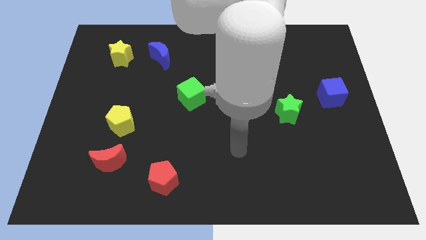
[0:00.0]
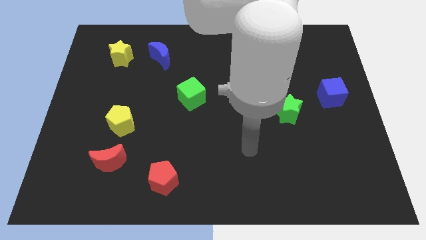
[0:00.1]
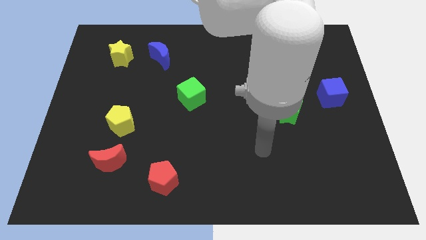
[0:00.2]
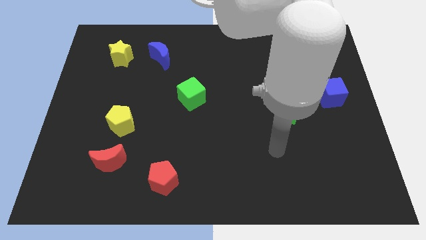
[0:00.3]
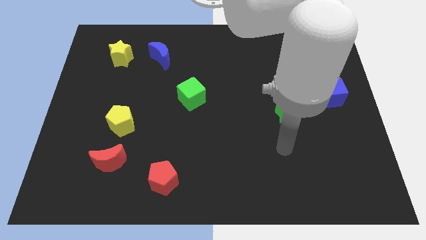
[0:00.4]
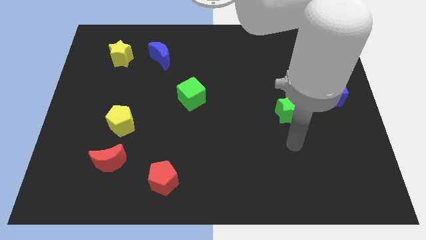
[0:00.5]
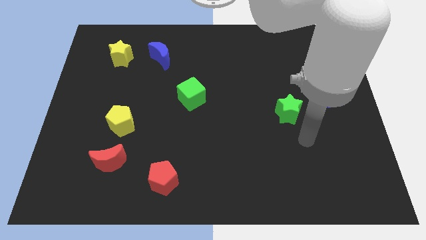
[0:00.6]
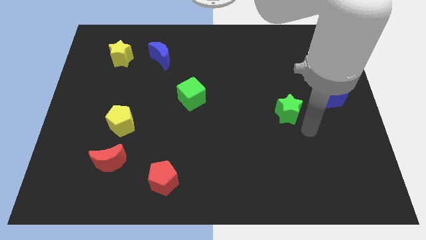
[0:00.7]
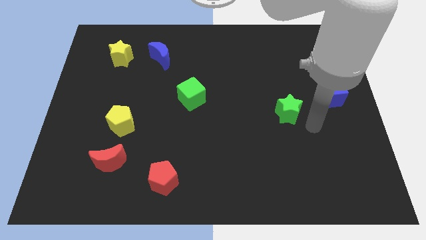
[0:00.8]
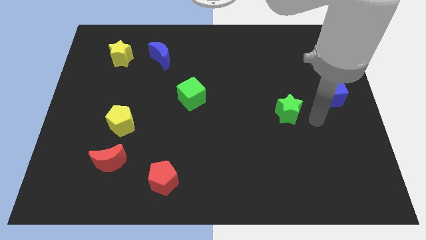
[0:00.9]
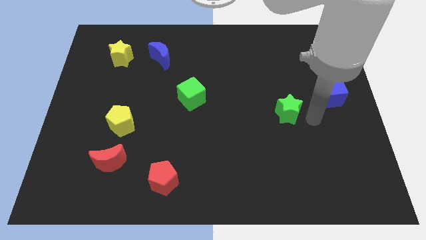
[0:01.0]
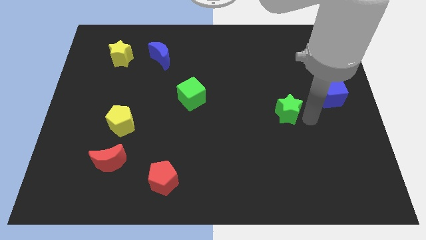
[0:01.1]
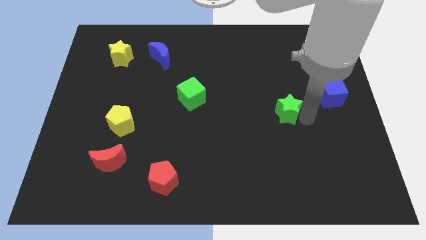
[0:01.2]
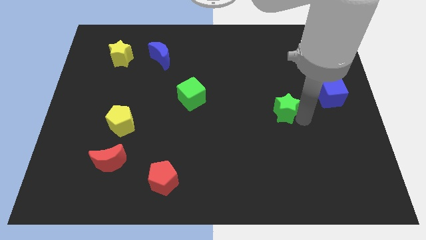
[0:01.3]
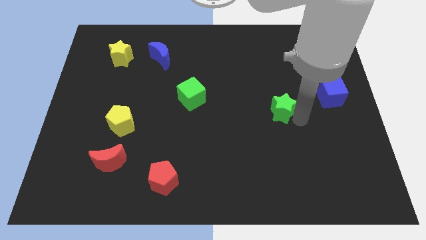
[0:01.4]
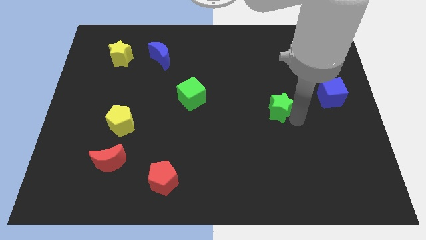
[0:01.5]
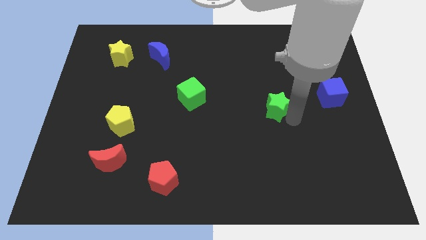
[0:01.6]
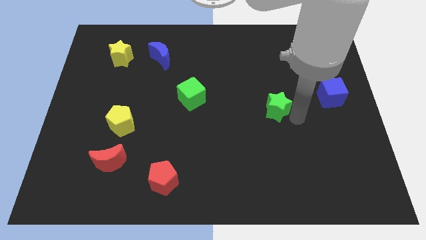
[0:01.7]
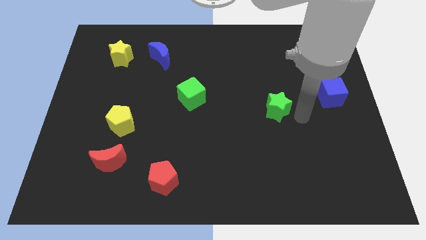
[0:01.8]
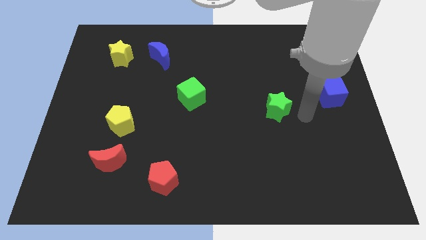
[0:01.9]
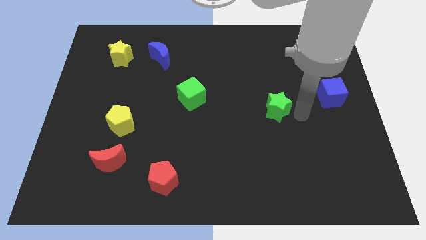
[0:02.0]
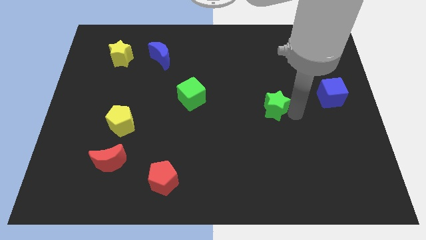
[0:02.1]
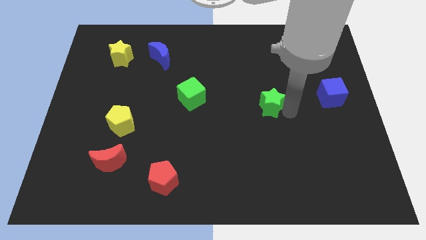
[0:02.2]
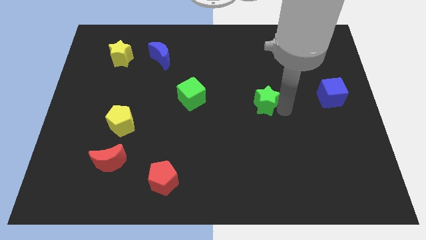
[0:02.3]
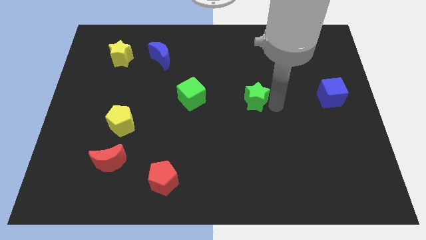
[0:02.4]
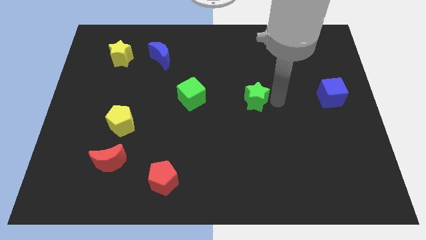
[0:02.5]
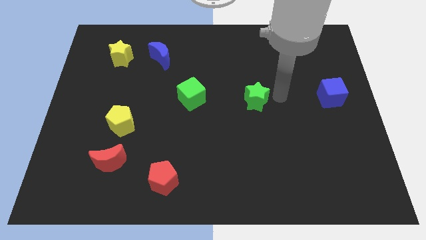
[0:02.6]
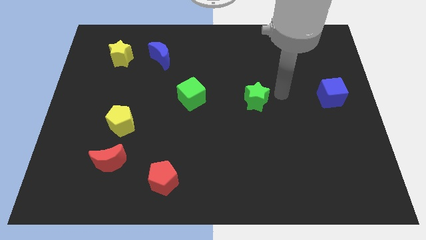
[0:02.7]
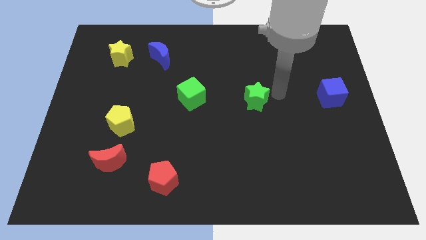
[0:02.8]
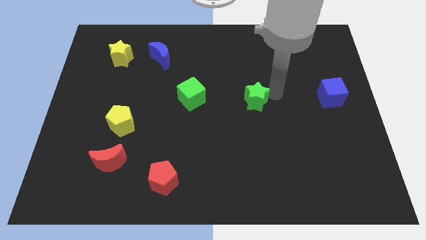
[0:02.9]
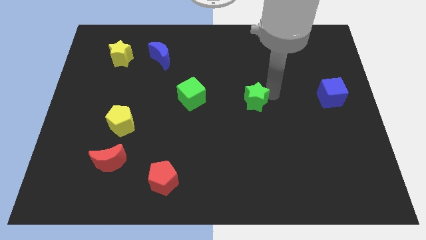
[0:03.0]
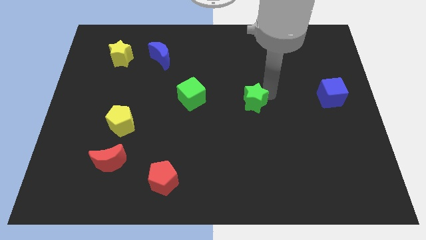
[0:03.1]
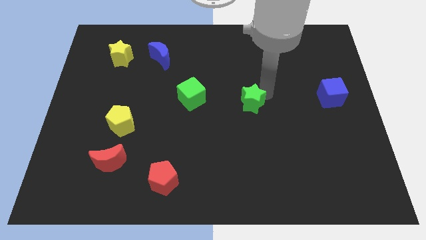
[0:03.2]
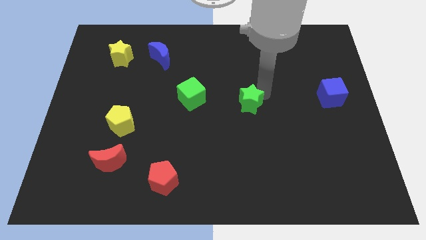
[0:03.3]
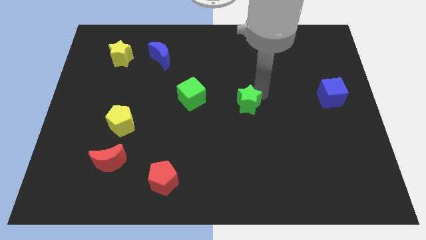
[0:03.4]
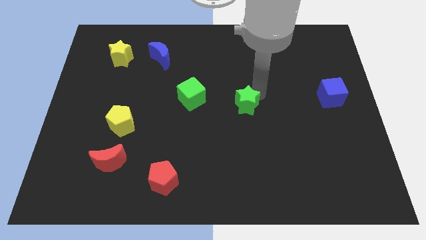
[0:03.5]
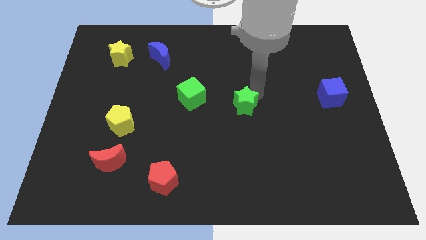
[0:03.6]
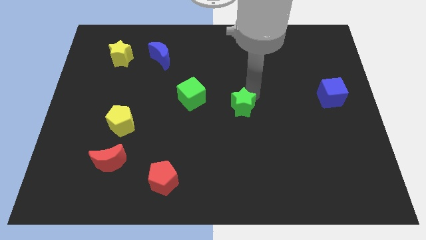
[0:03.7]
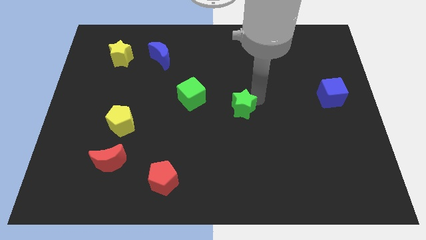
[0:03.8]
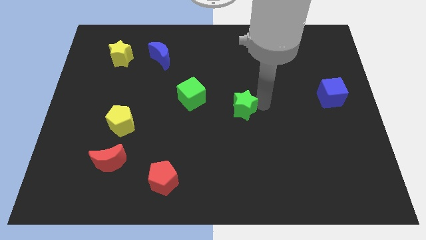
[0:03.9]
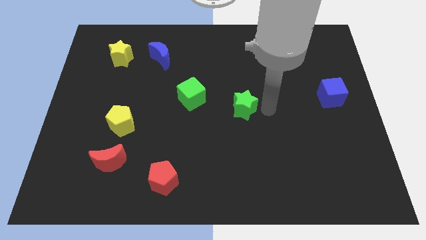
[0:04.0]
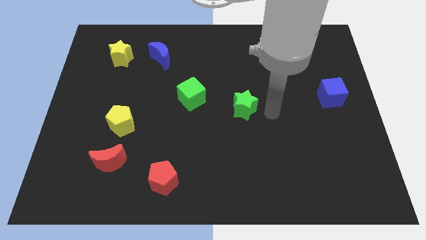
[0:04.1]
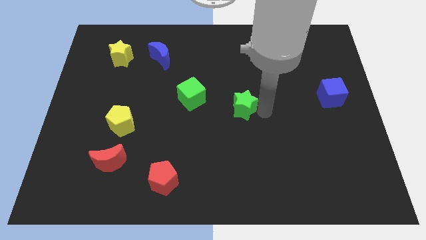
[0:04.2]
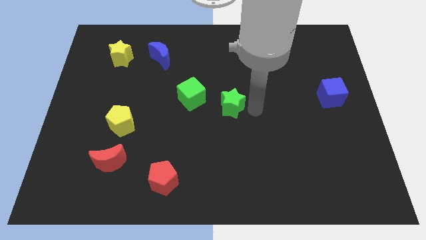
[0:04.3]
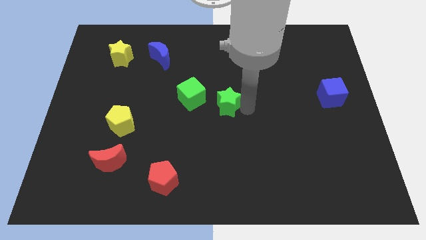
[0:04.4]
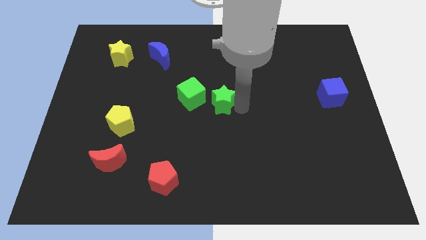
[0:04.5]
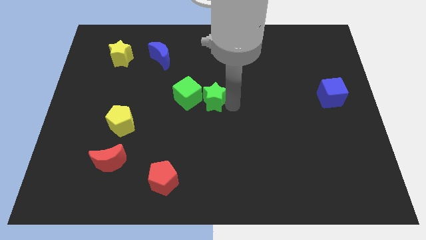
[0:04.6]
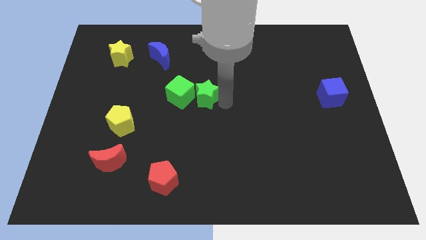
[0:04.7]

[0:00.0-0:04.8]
put the green star next to the green cube

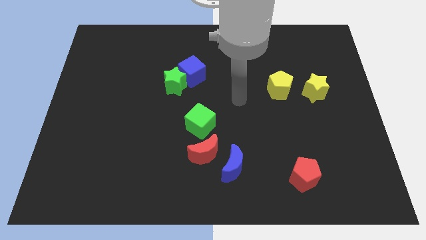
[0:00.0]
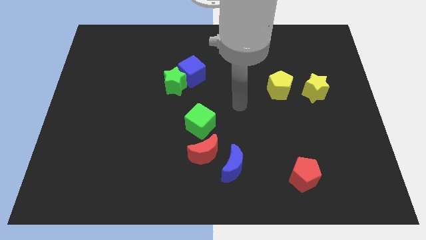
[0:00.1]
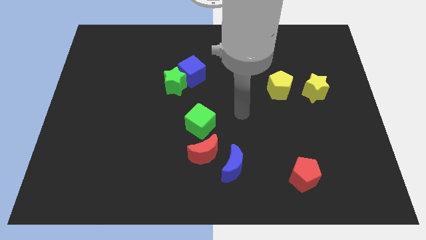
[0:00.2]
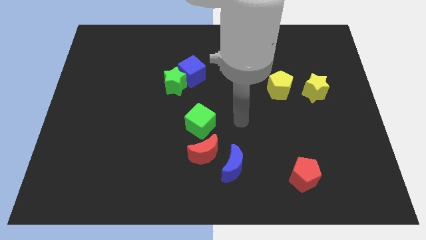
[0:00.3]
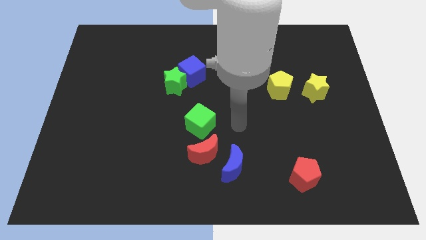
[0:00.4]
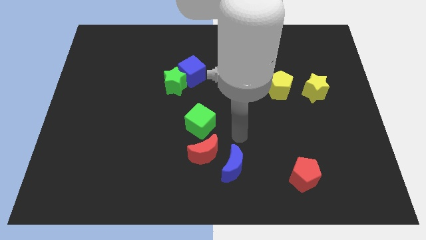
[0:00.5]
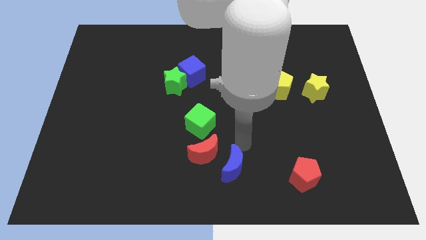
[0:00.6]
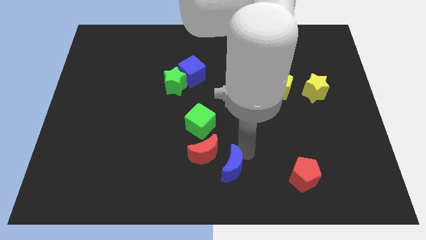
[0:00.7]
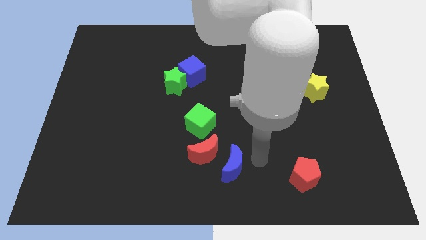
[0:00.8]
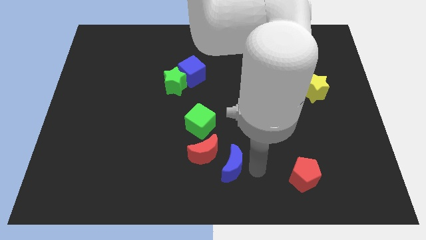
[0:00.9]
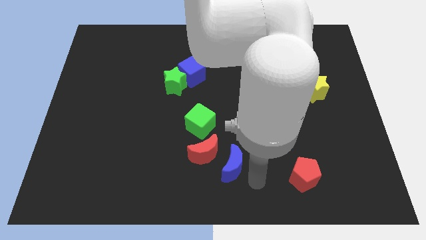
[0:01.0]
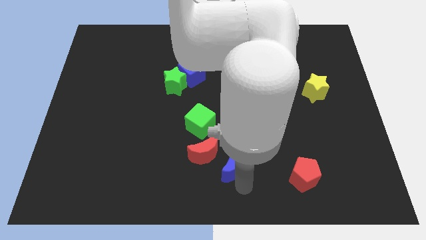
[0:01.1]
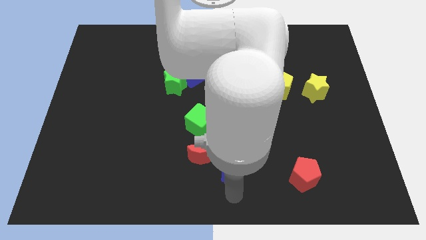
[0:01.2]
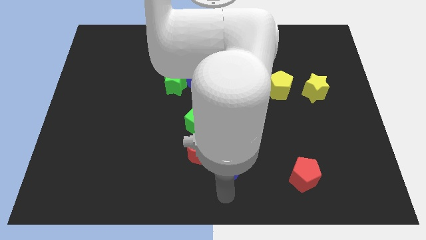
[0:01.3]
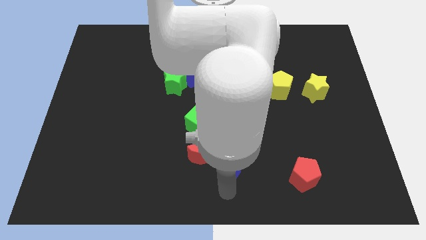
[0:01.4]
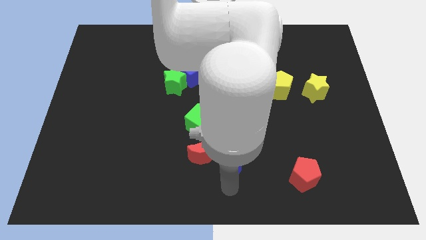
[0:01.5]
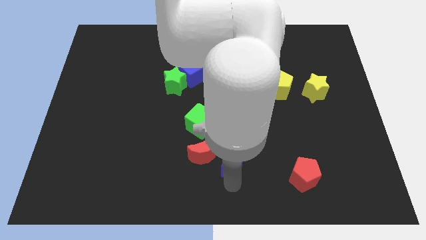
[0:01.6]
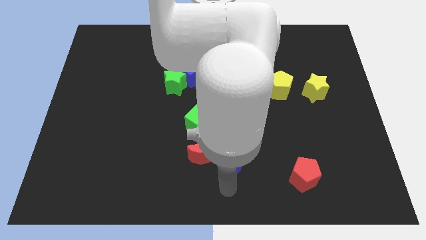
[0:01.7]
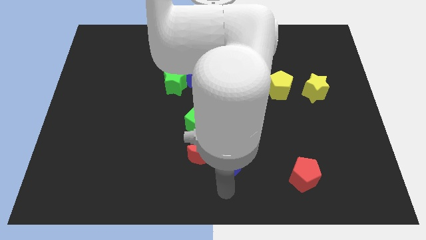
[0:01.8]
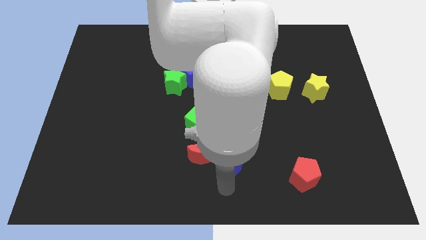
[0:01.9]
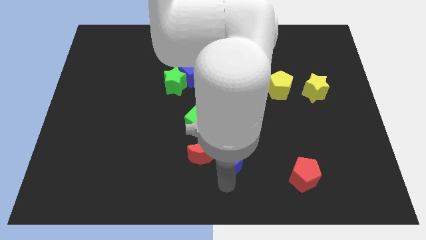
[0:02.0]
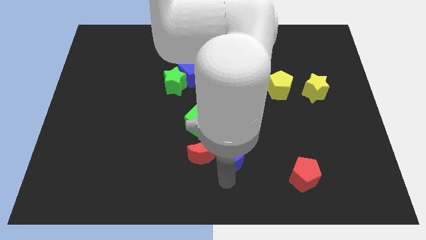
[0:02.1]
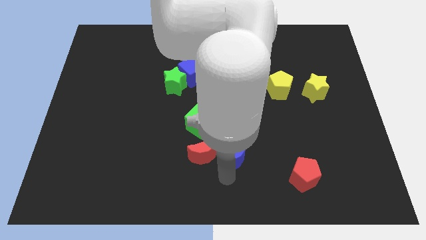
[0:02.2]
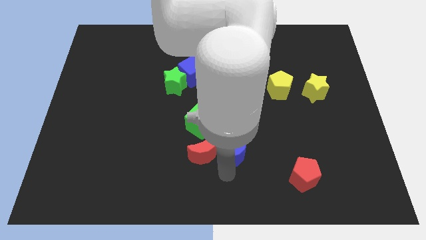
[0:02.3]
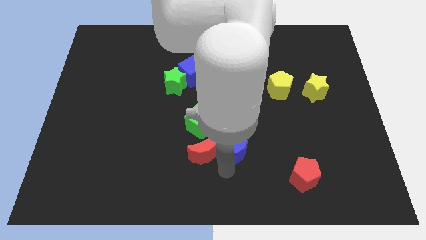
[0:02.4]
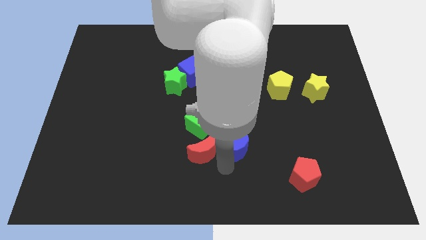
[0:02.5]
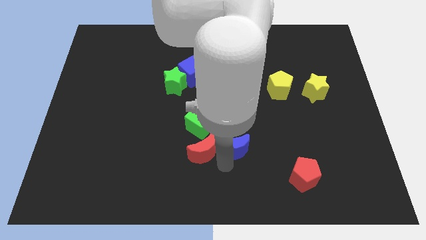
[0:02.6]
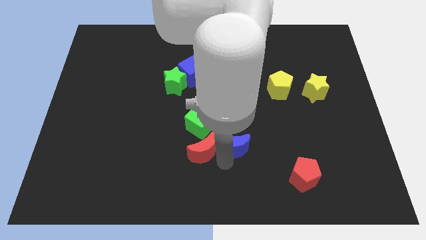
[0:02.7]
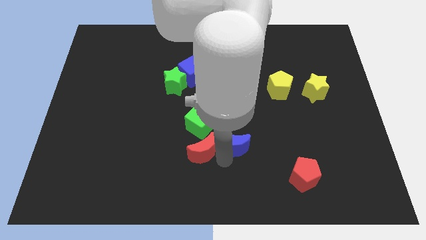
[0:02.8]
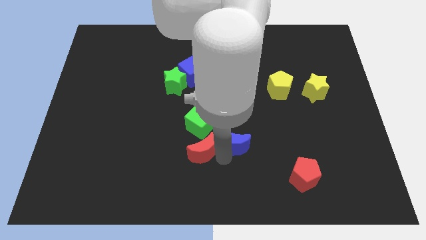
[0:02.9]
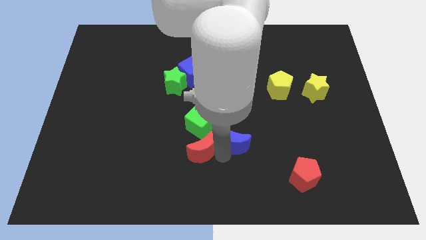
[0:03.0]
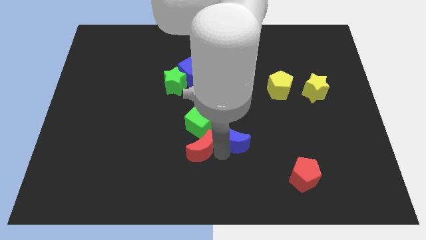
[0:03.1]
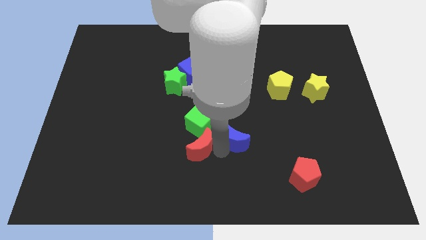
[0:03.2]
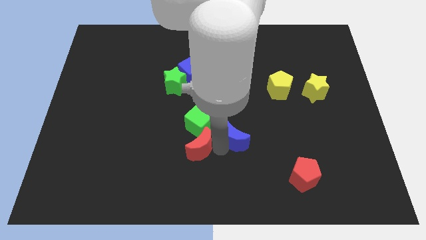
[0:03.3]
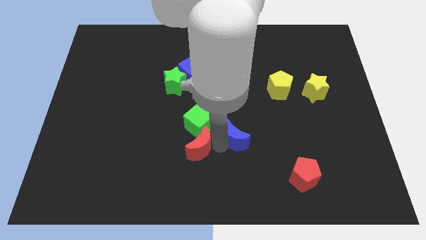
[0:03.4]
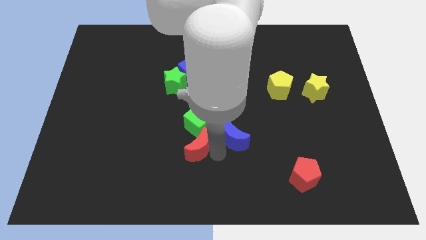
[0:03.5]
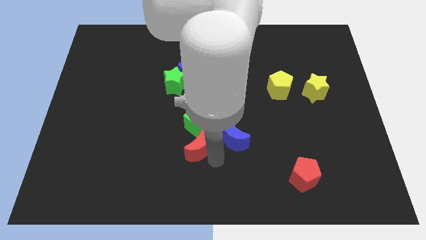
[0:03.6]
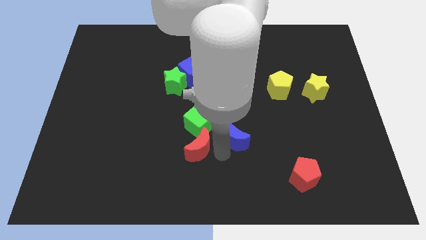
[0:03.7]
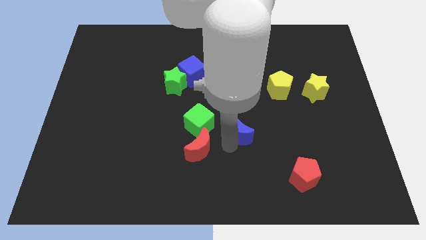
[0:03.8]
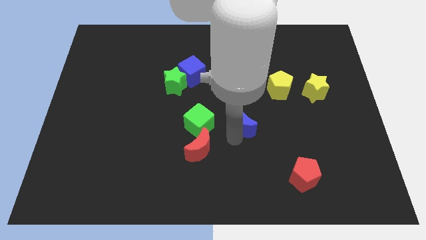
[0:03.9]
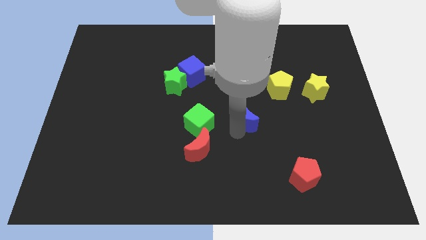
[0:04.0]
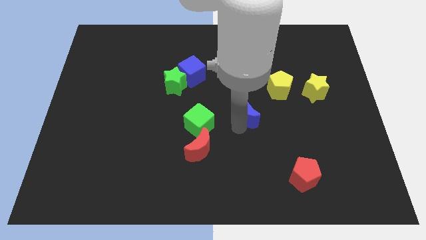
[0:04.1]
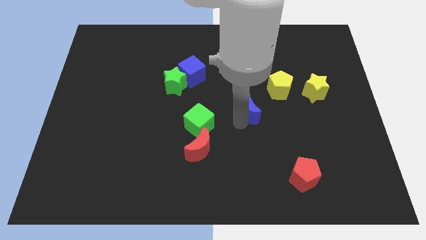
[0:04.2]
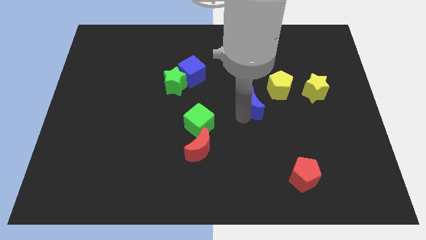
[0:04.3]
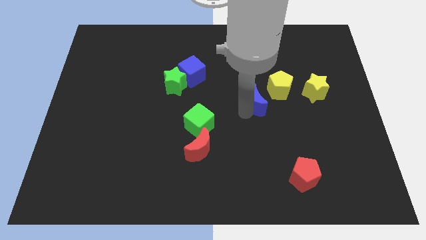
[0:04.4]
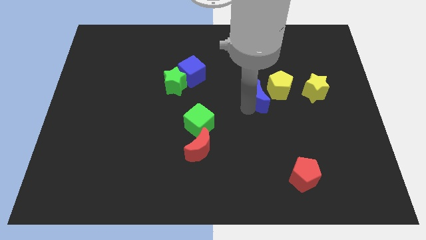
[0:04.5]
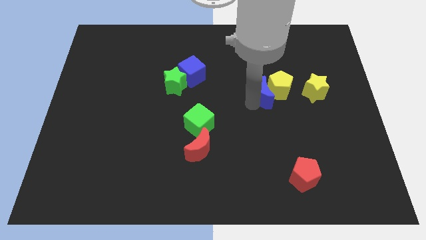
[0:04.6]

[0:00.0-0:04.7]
put the blue moon next to the yellow pentagon
